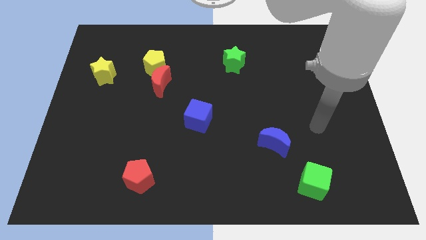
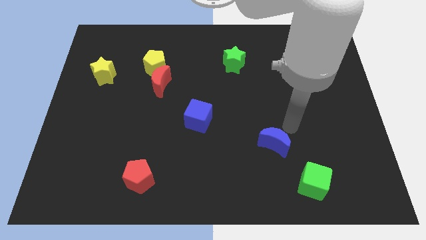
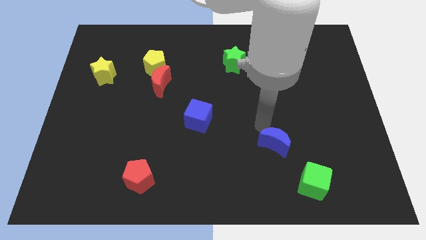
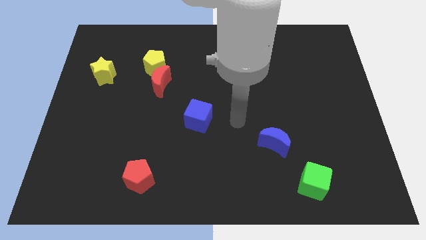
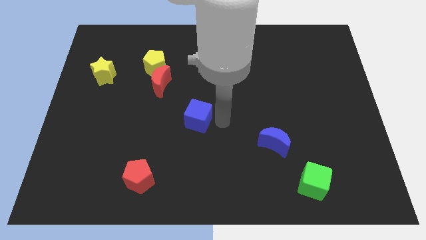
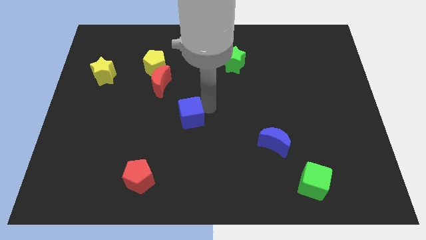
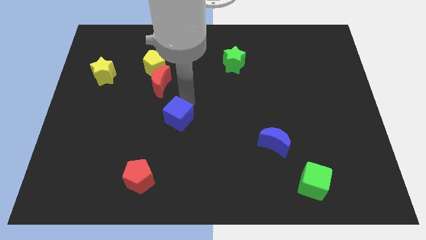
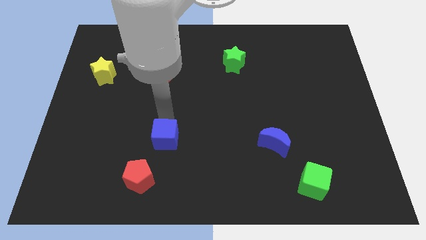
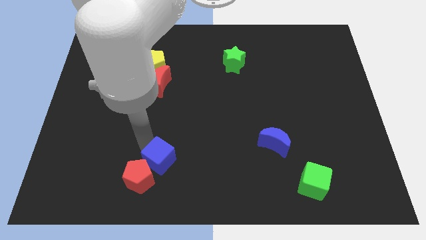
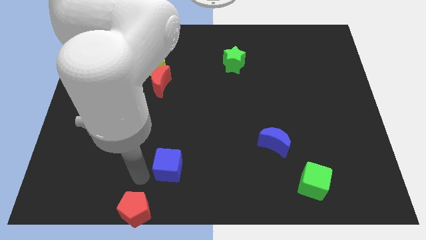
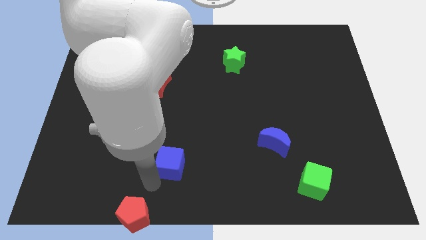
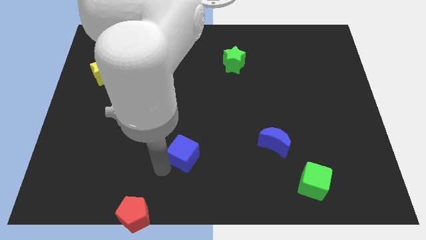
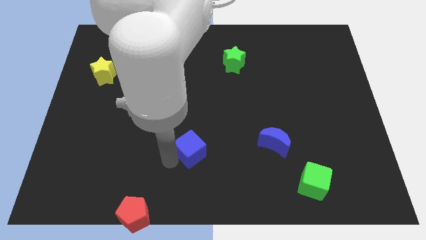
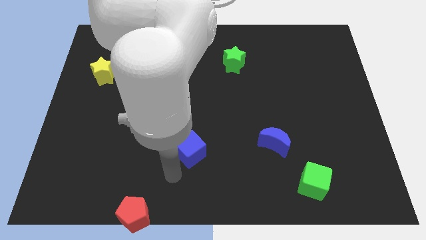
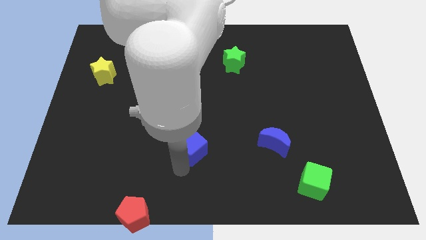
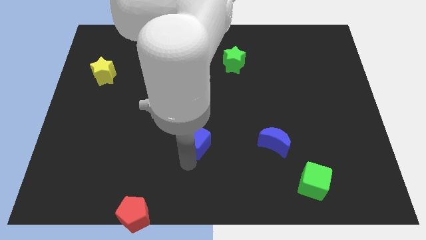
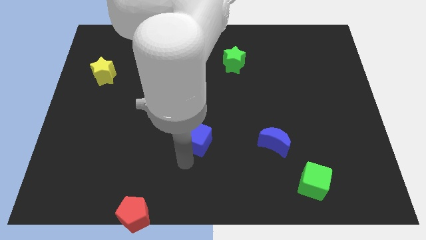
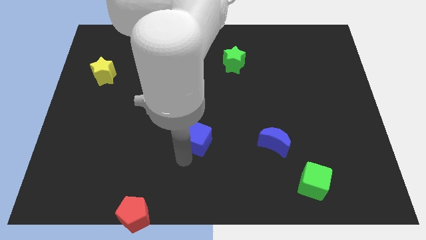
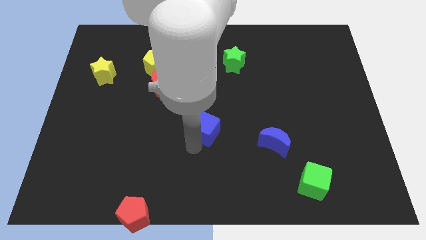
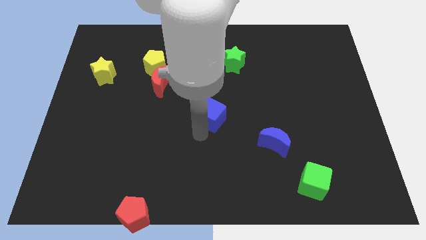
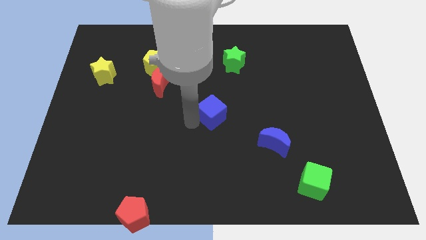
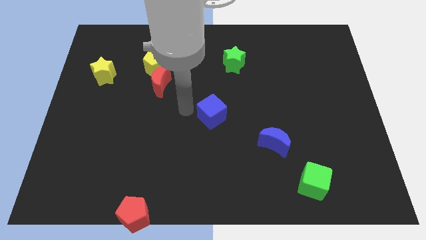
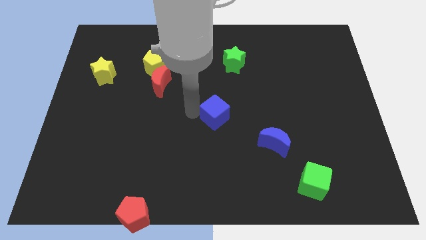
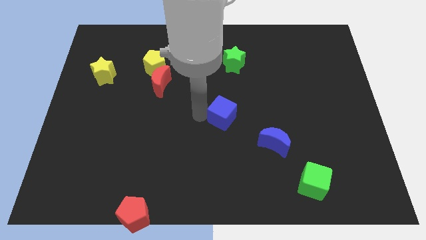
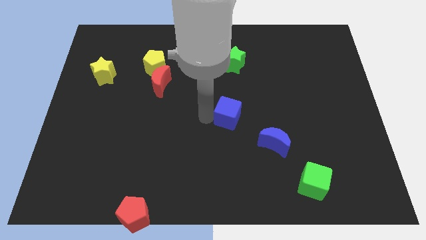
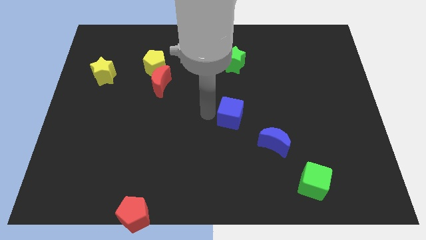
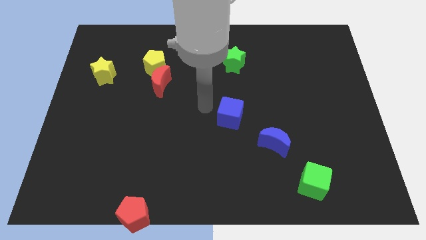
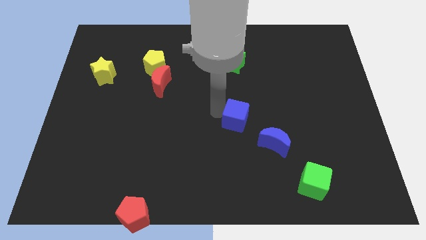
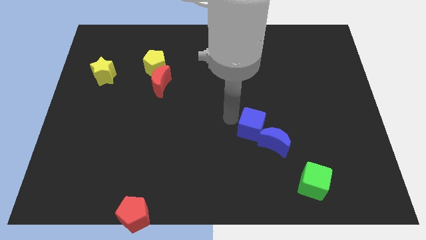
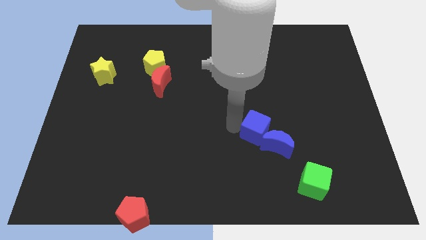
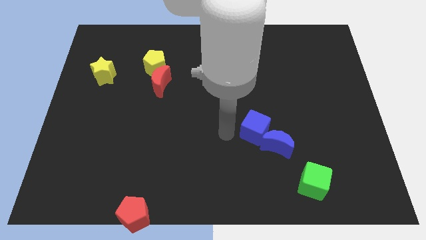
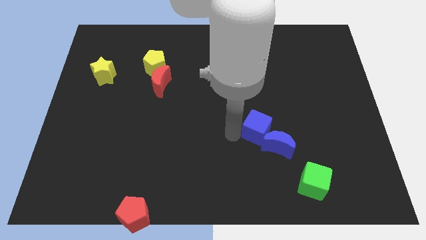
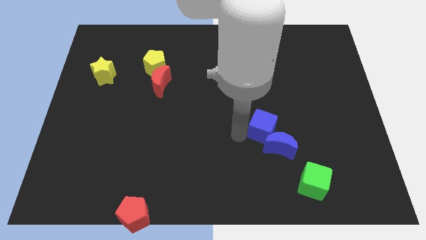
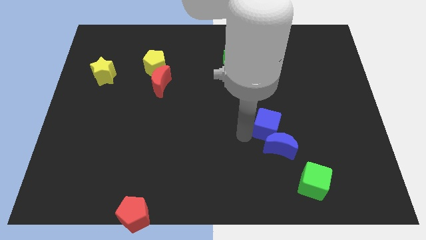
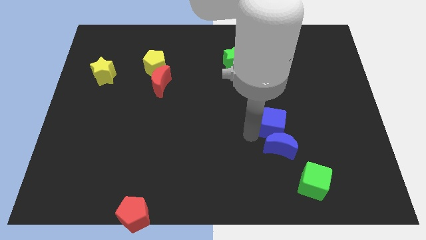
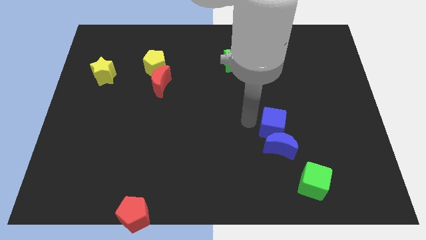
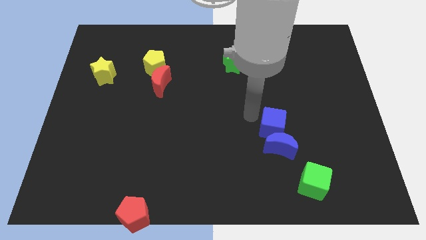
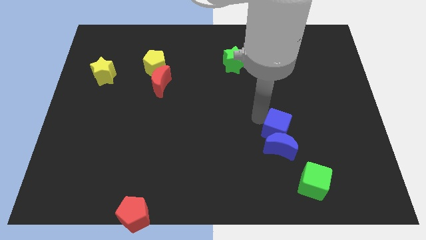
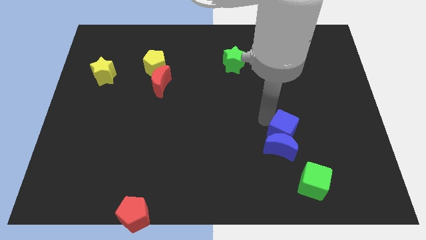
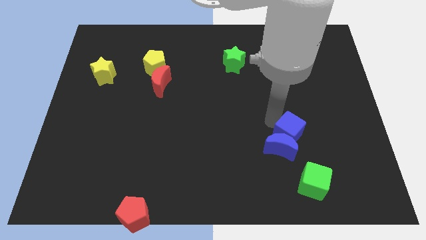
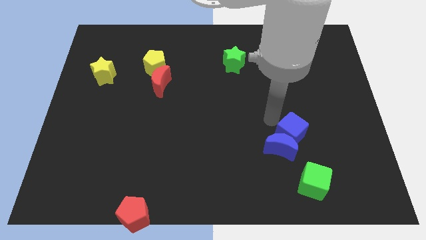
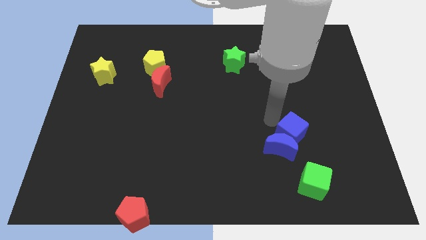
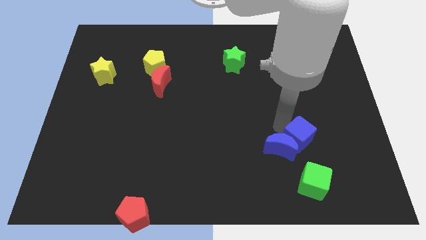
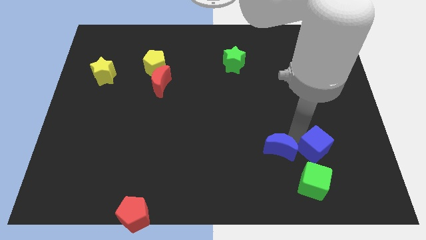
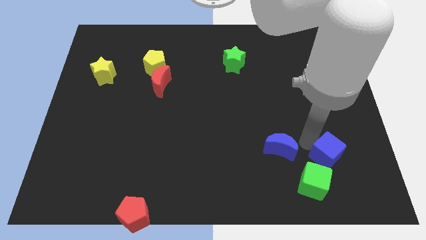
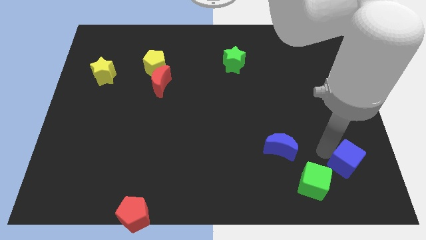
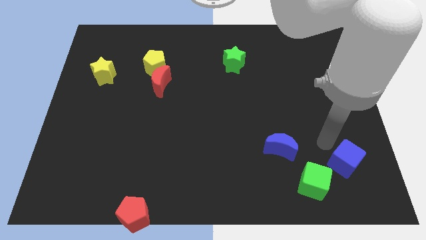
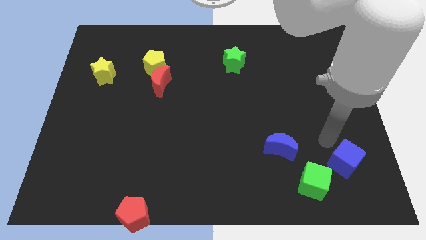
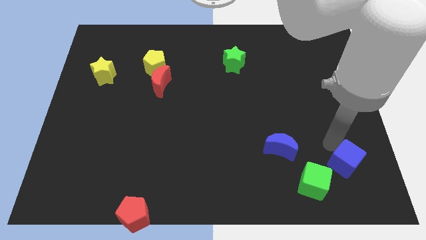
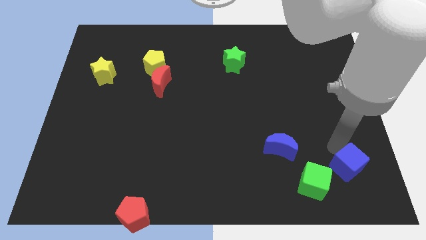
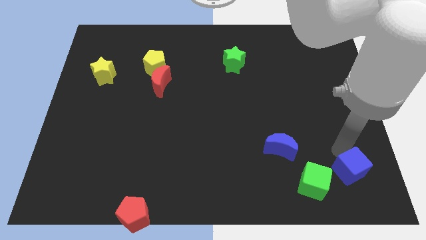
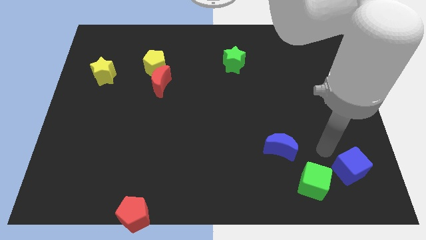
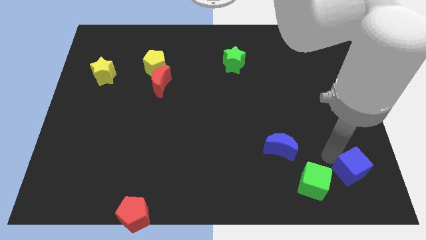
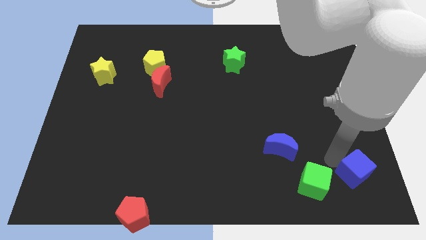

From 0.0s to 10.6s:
put the blue cube to the lower right corner

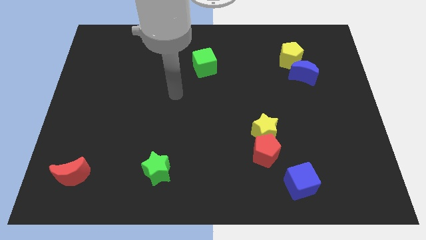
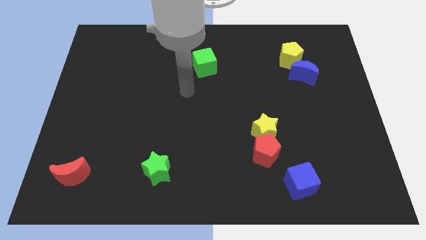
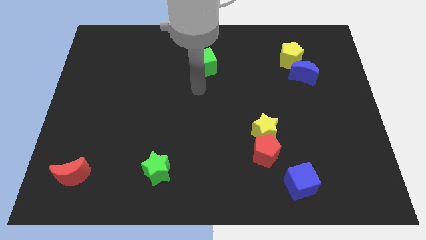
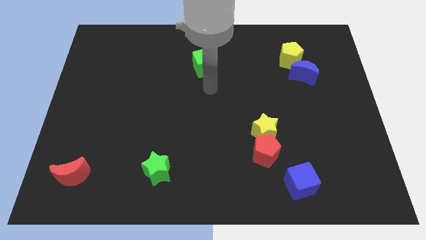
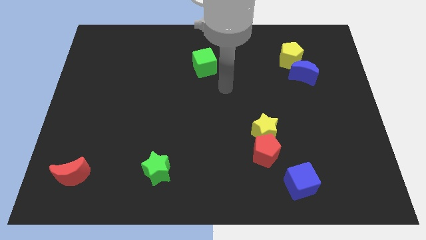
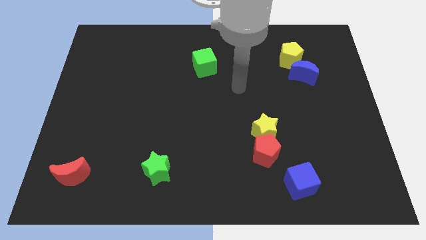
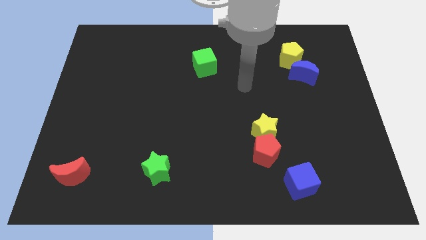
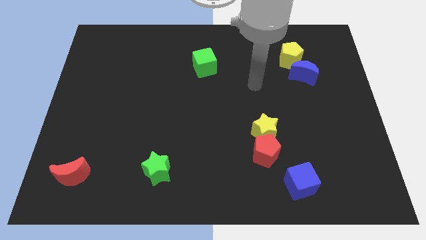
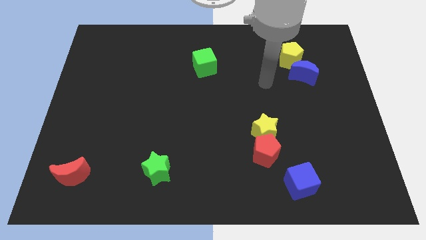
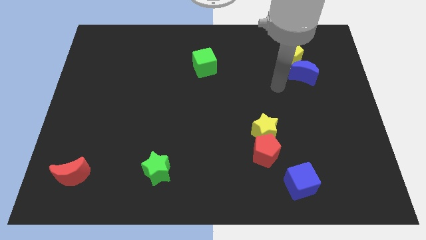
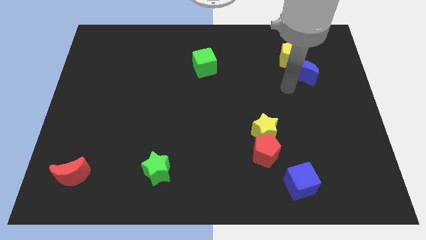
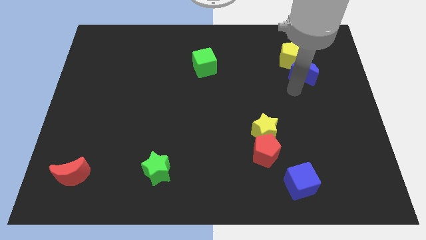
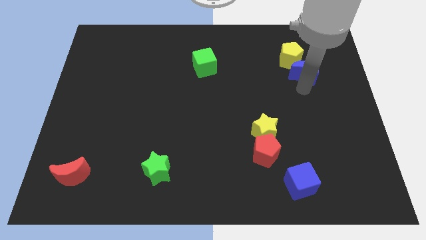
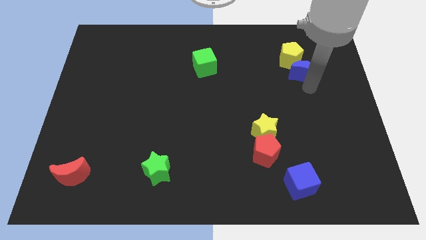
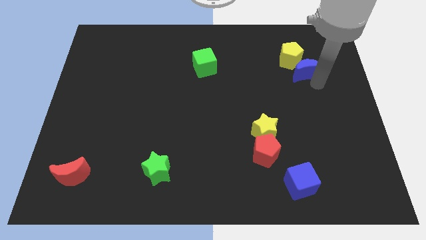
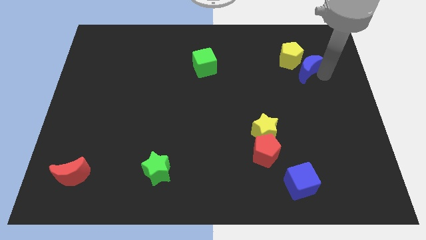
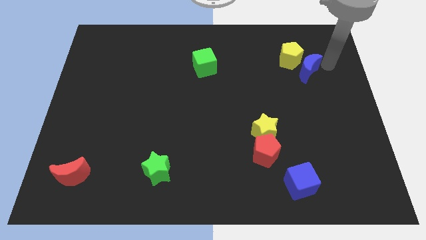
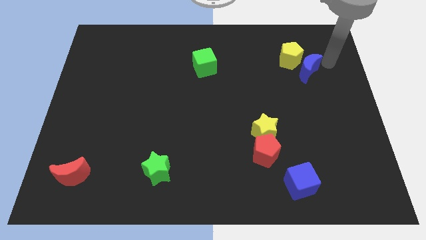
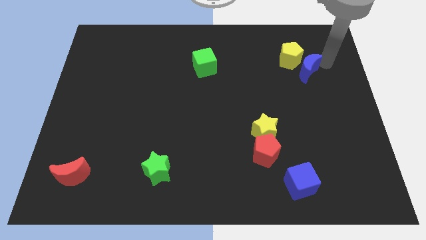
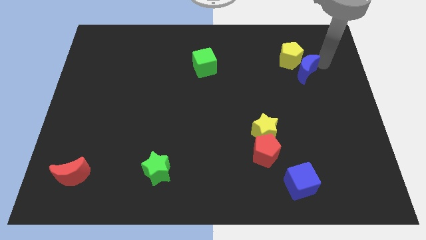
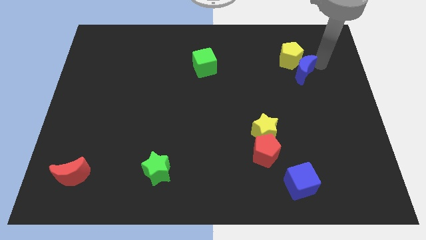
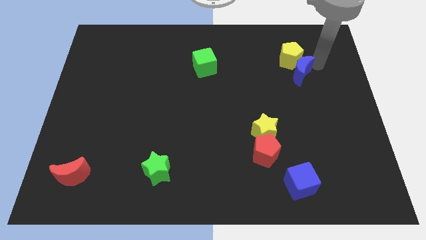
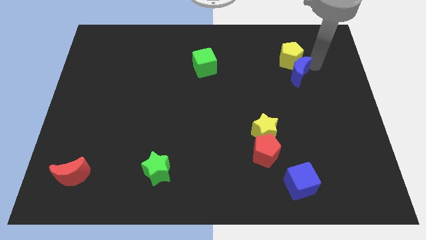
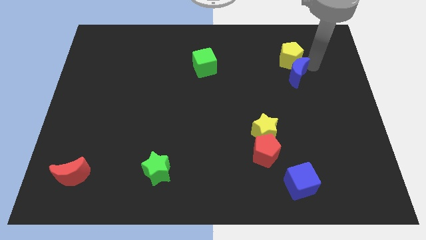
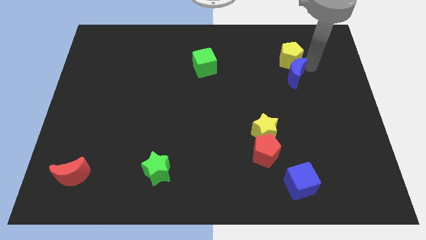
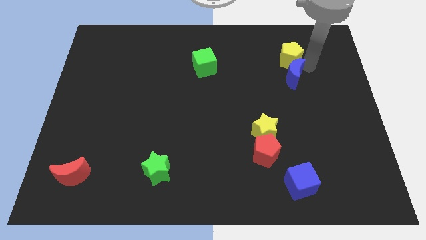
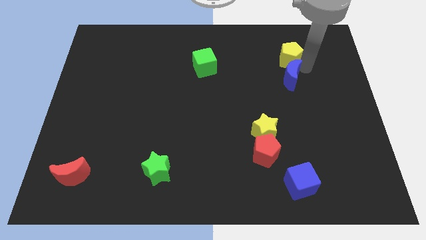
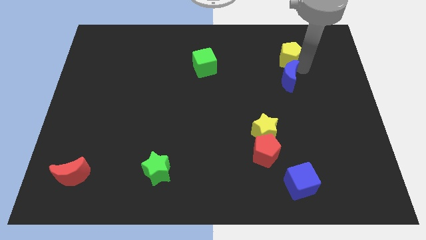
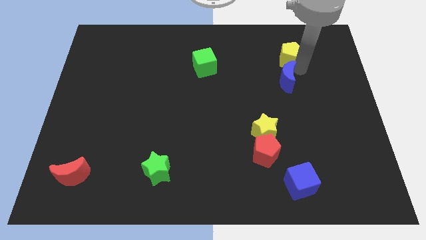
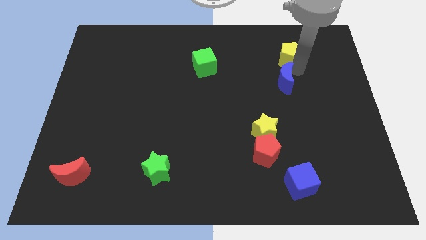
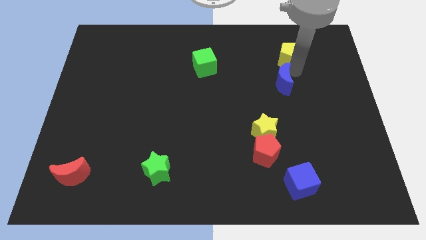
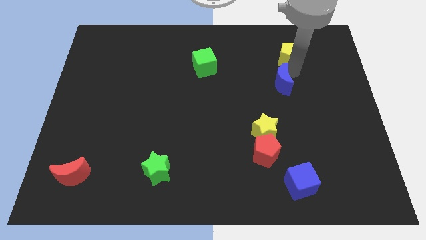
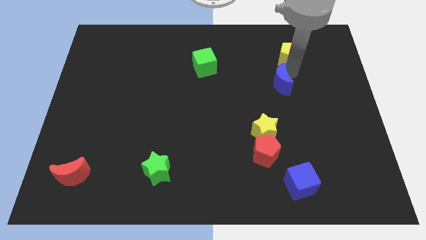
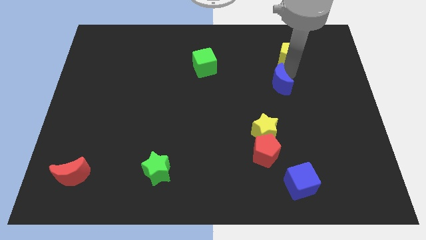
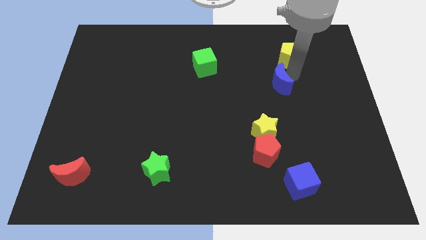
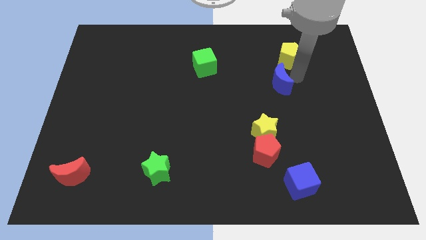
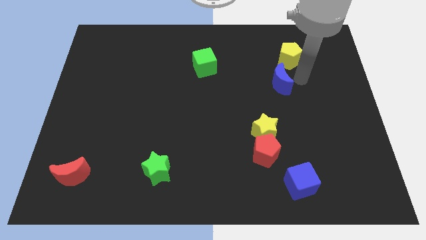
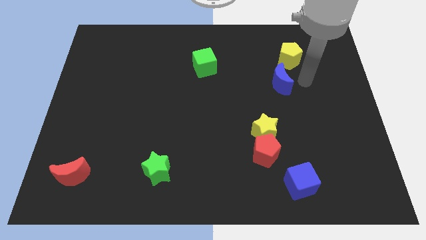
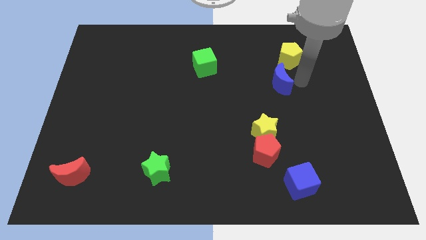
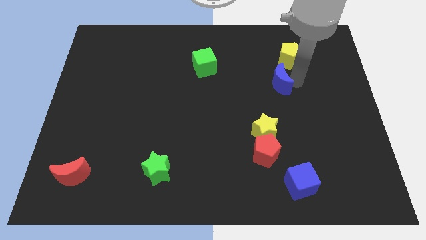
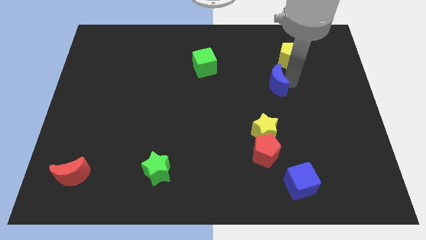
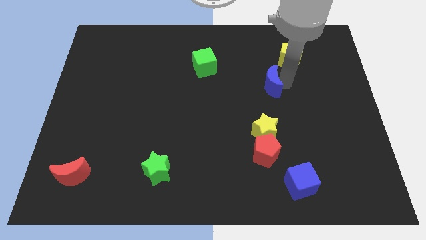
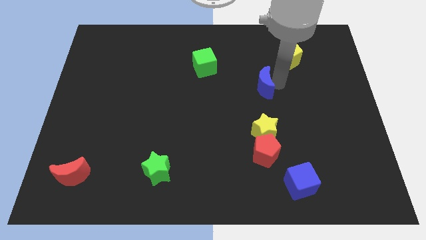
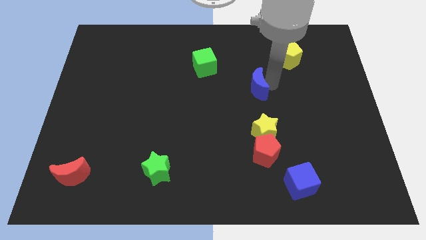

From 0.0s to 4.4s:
push the blue moon to the middle
